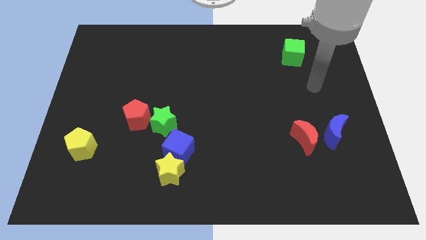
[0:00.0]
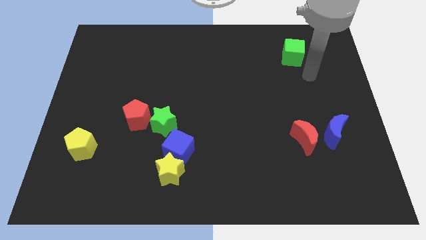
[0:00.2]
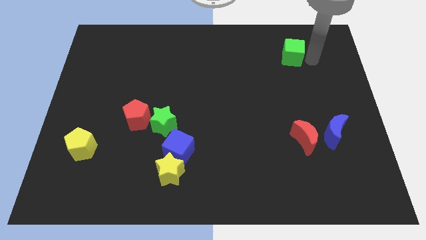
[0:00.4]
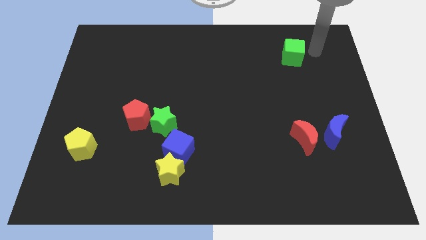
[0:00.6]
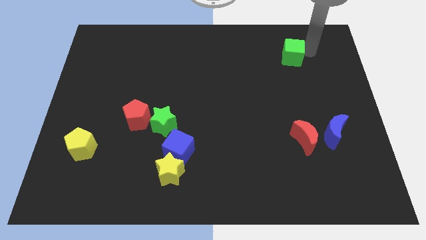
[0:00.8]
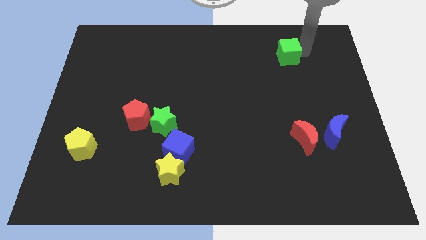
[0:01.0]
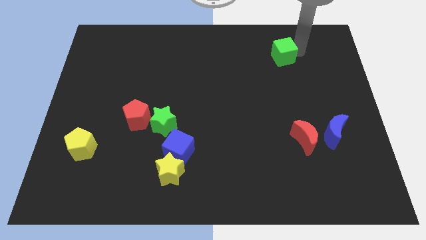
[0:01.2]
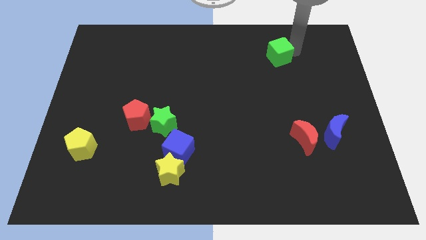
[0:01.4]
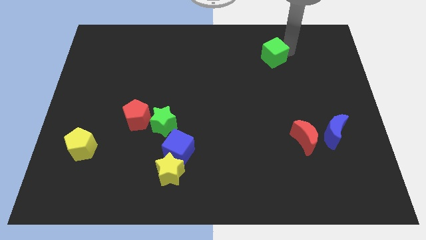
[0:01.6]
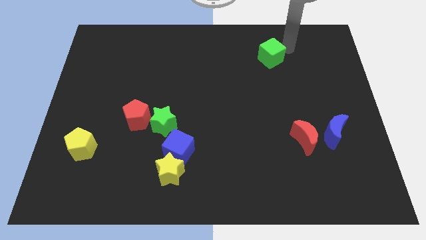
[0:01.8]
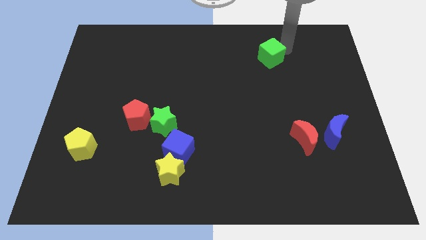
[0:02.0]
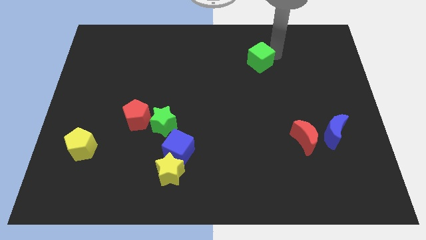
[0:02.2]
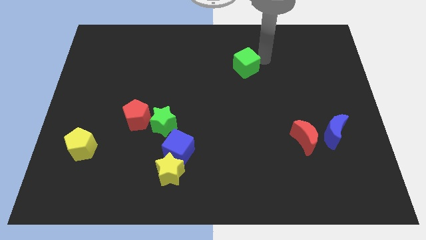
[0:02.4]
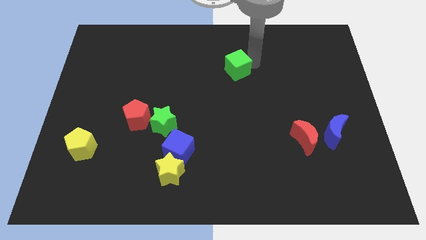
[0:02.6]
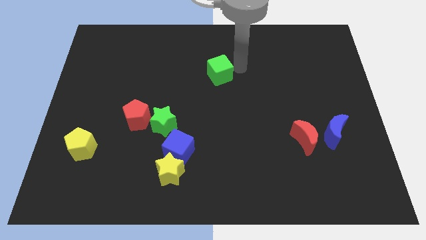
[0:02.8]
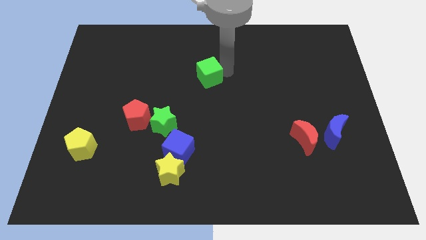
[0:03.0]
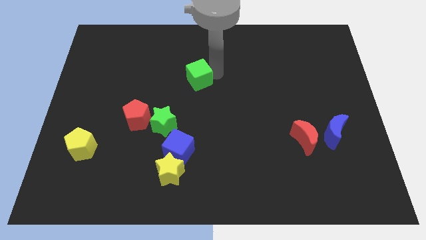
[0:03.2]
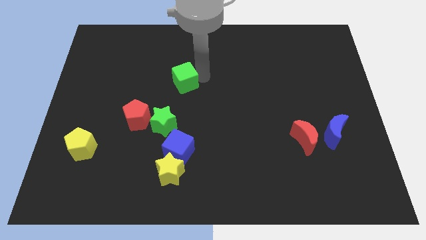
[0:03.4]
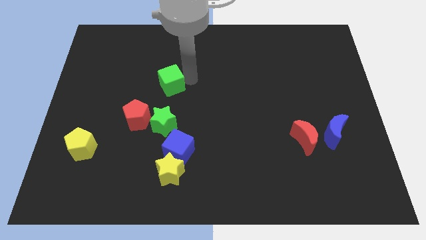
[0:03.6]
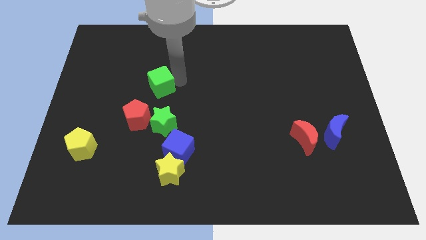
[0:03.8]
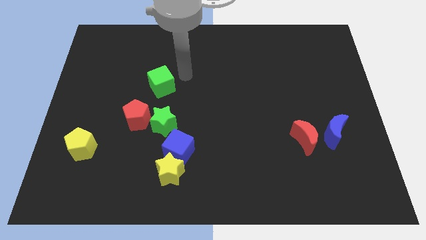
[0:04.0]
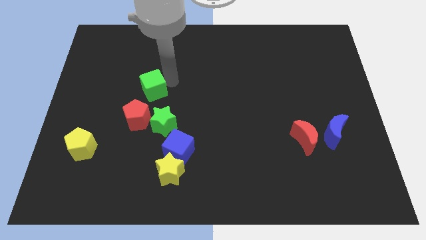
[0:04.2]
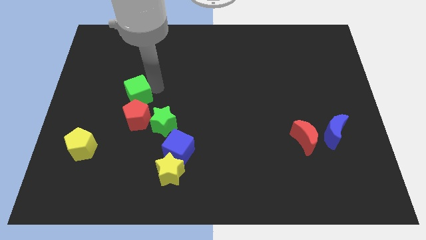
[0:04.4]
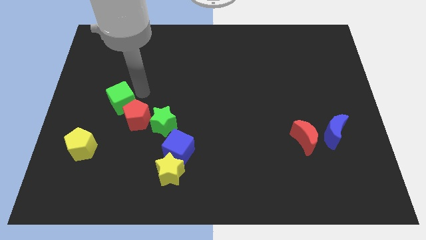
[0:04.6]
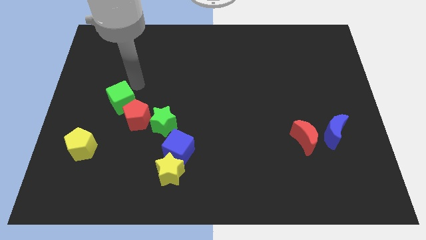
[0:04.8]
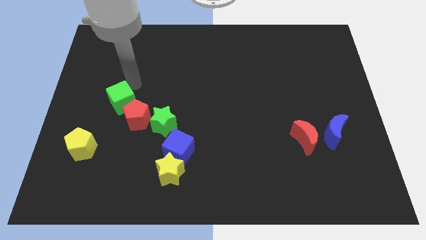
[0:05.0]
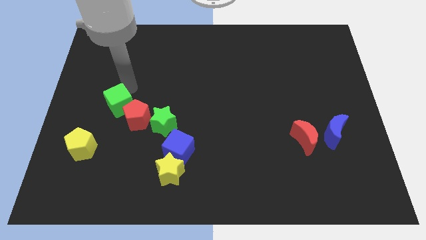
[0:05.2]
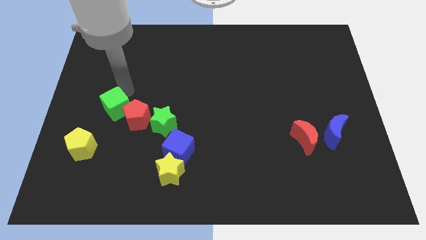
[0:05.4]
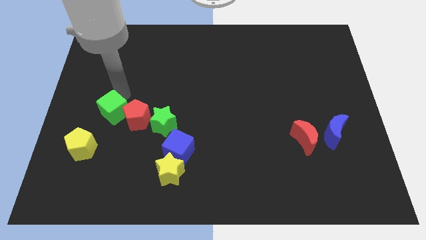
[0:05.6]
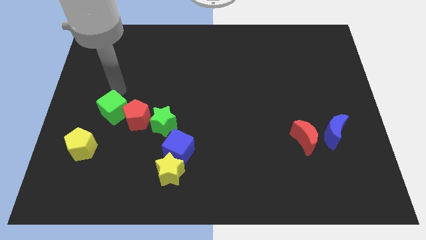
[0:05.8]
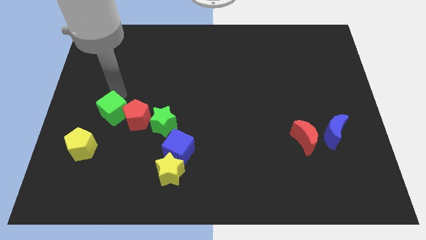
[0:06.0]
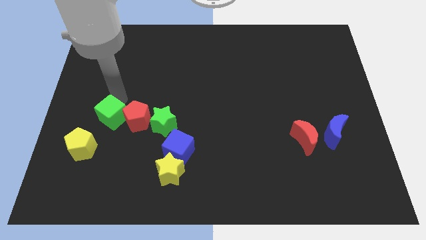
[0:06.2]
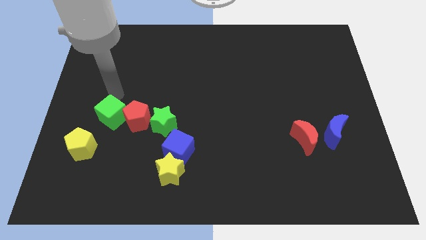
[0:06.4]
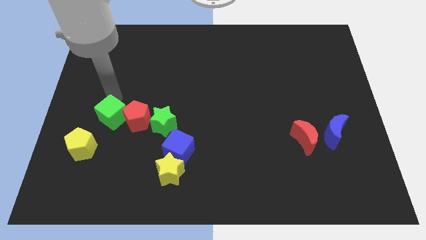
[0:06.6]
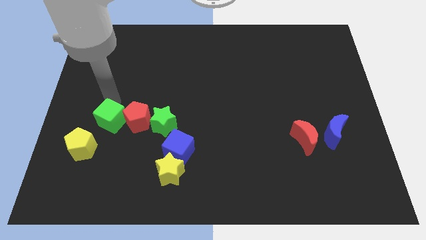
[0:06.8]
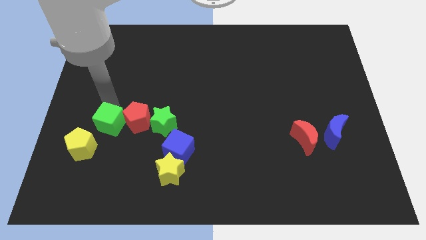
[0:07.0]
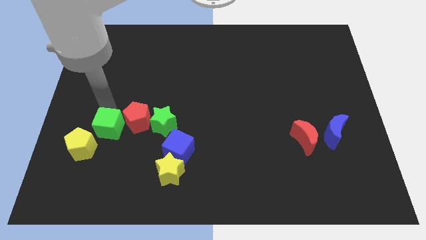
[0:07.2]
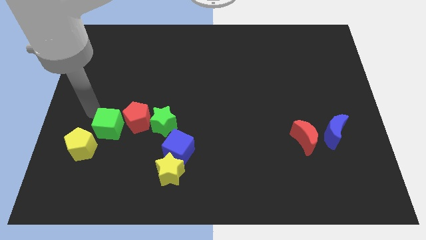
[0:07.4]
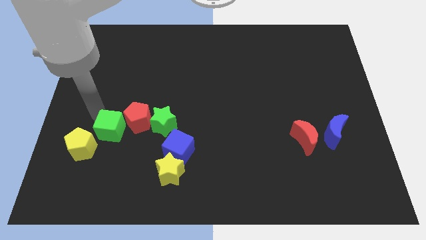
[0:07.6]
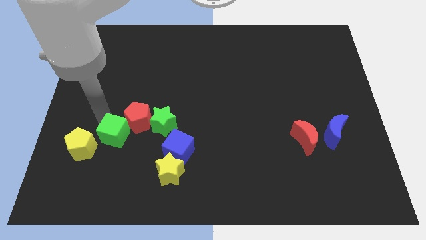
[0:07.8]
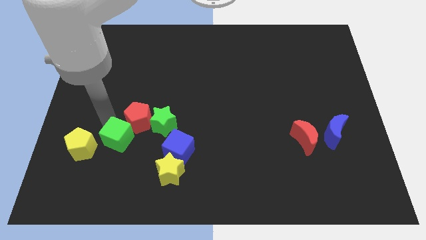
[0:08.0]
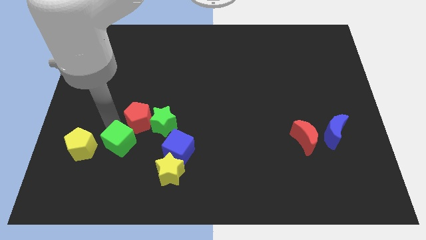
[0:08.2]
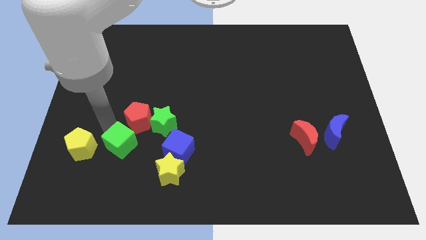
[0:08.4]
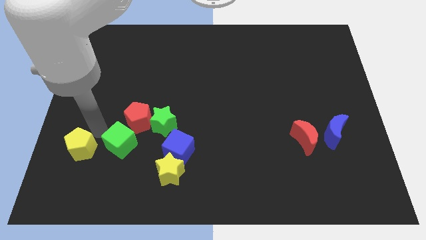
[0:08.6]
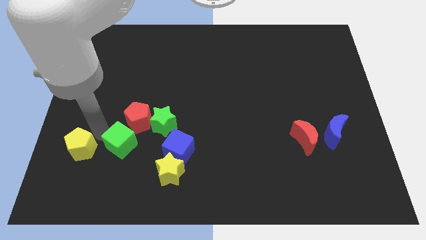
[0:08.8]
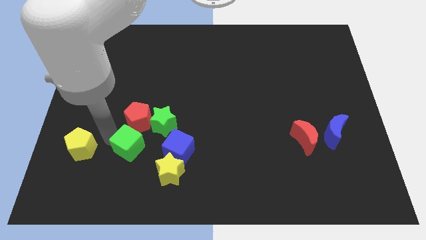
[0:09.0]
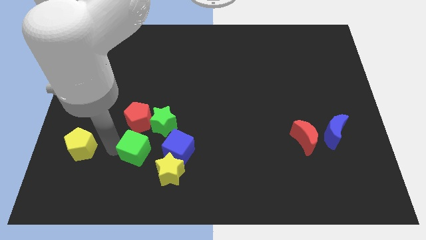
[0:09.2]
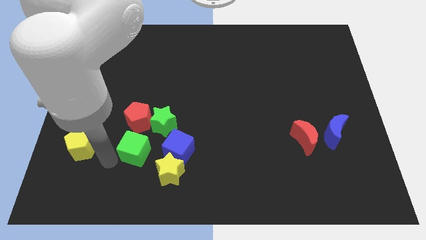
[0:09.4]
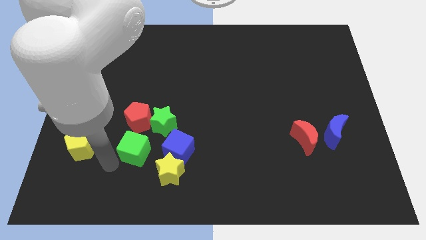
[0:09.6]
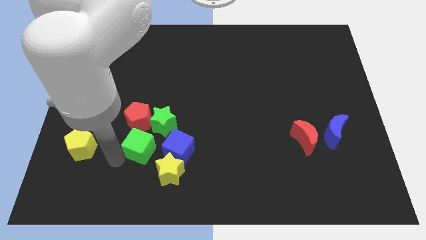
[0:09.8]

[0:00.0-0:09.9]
move the green cube diagonally down and to the right of the red pentagon

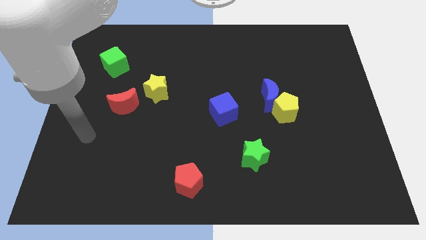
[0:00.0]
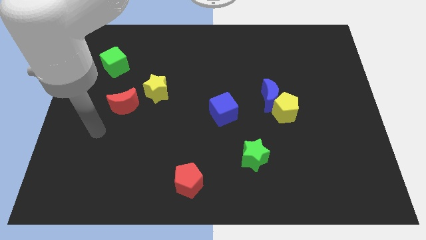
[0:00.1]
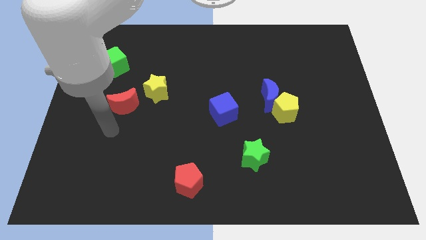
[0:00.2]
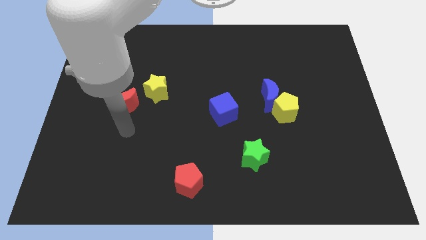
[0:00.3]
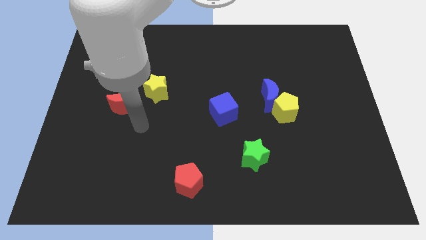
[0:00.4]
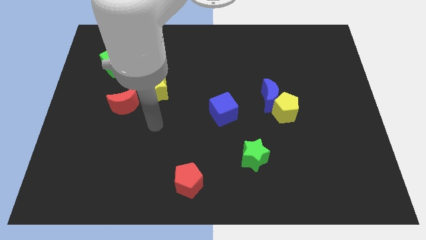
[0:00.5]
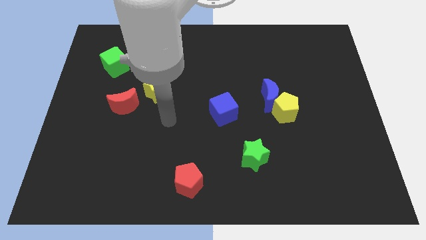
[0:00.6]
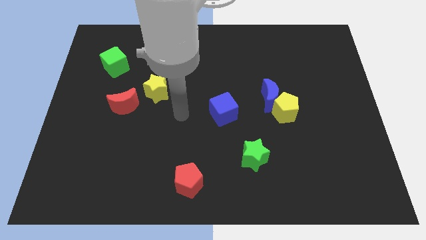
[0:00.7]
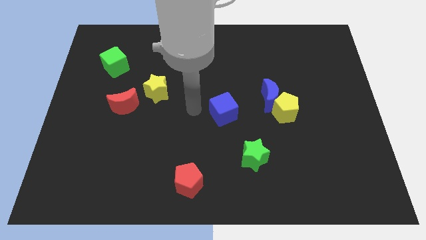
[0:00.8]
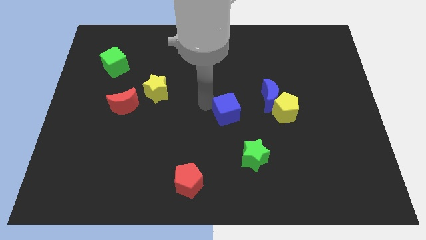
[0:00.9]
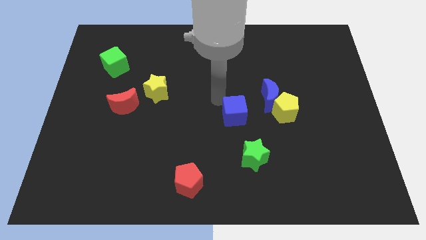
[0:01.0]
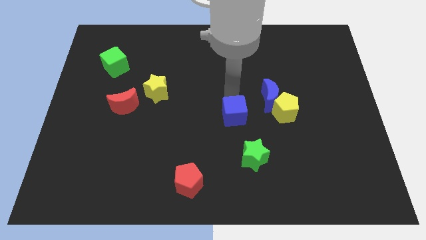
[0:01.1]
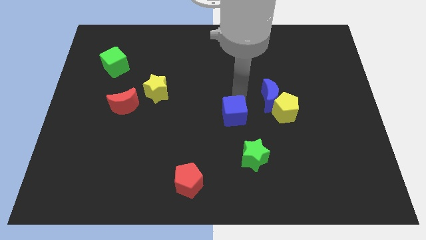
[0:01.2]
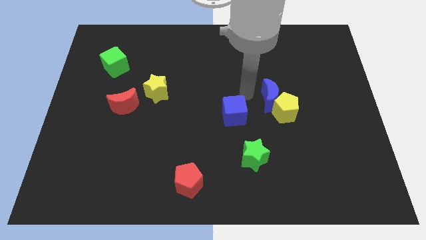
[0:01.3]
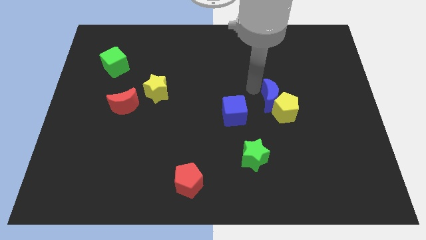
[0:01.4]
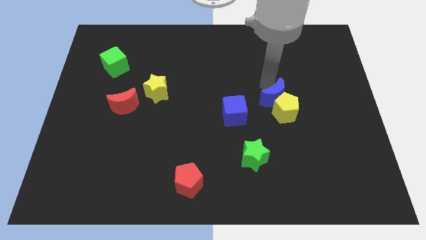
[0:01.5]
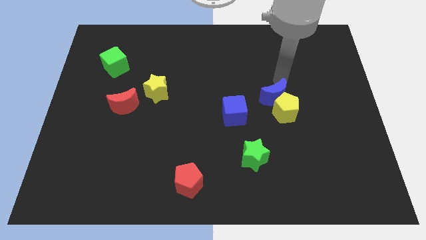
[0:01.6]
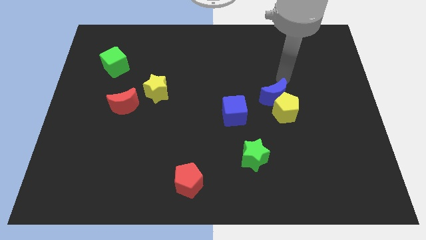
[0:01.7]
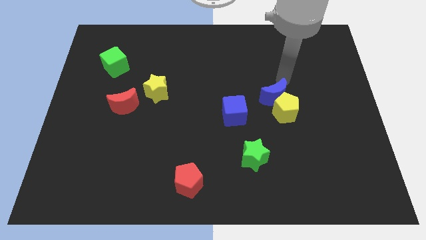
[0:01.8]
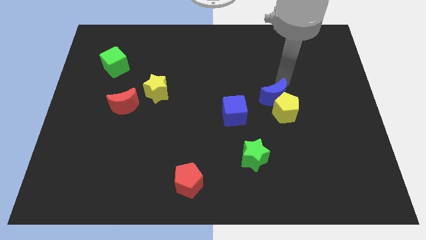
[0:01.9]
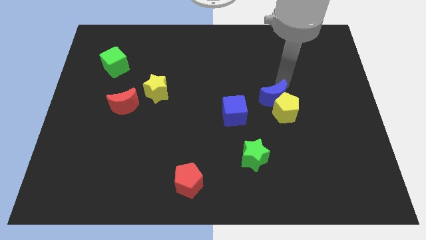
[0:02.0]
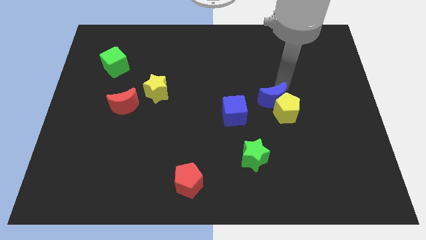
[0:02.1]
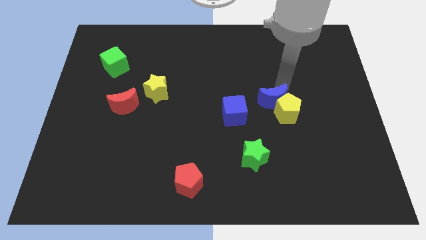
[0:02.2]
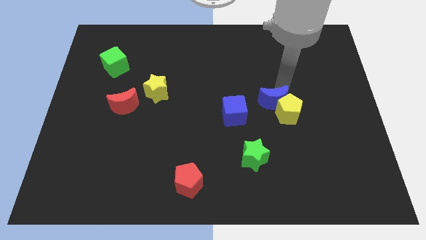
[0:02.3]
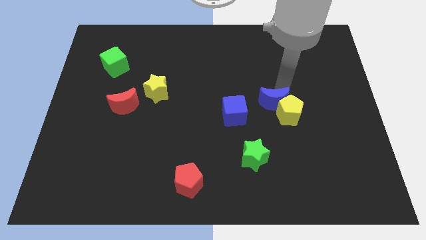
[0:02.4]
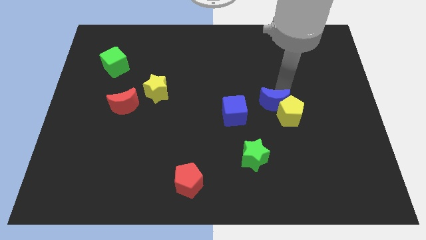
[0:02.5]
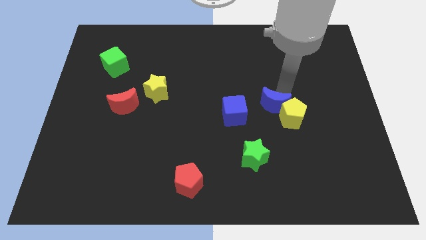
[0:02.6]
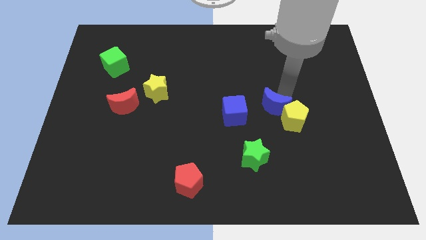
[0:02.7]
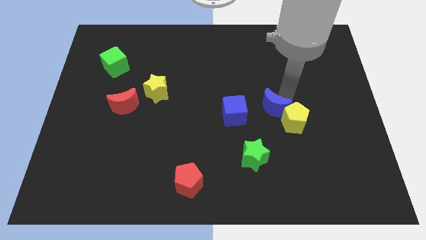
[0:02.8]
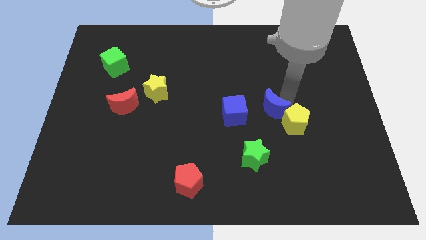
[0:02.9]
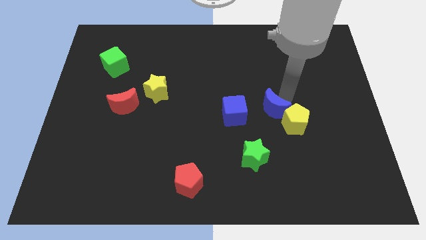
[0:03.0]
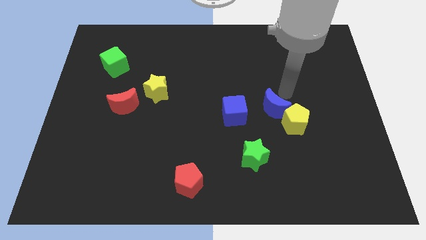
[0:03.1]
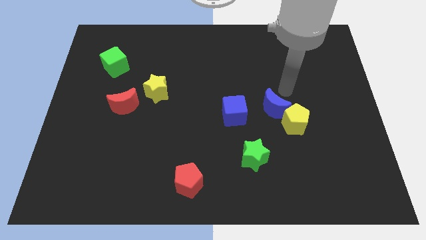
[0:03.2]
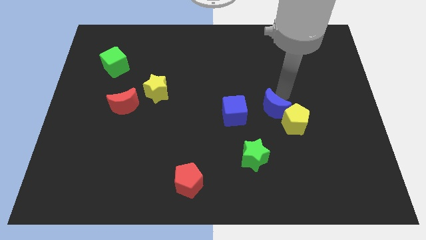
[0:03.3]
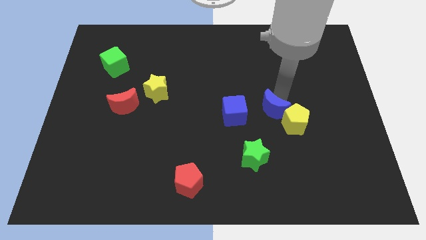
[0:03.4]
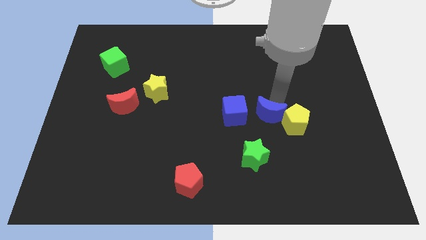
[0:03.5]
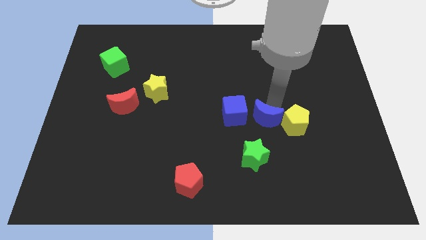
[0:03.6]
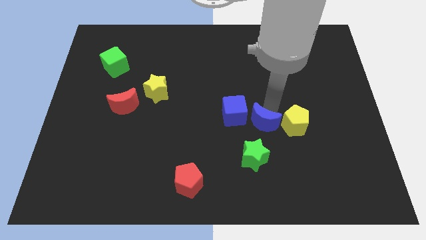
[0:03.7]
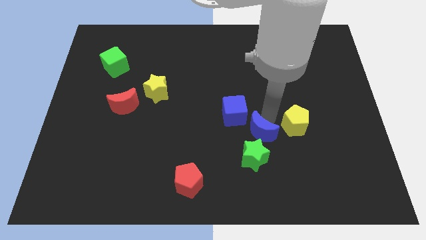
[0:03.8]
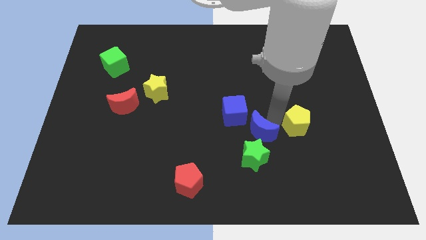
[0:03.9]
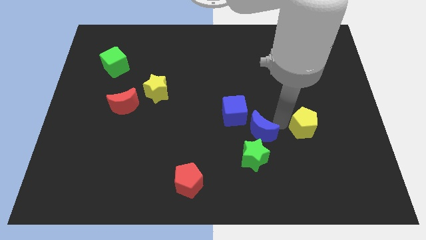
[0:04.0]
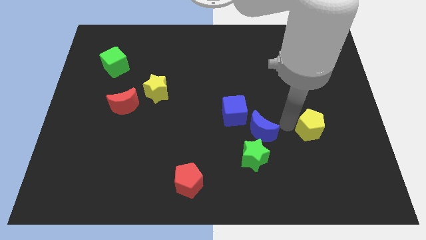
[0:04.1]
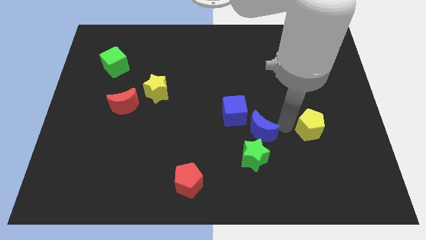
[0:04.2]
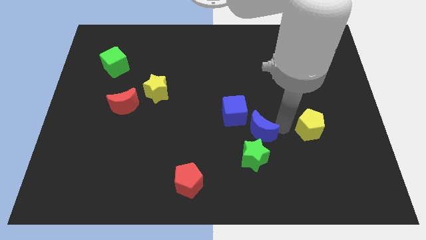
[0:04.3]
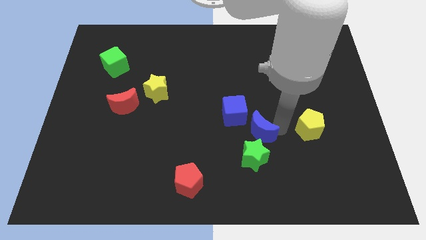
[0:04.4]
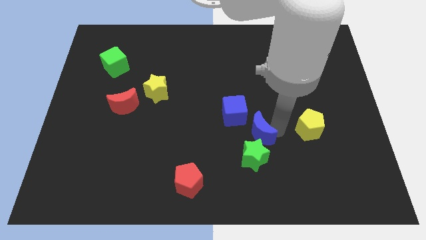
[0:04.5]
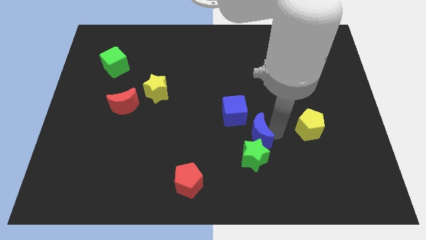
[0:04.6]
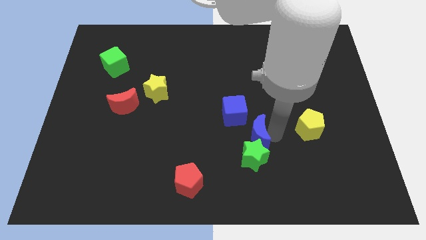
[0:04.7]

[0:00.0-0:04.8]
move the blue moon to the top left side of the green star
